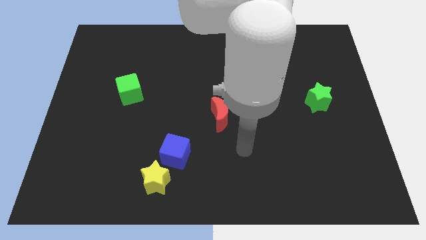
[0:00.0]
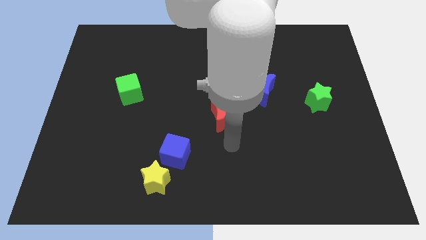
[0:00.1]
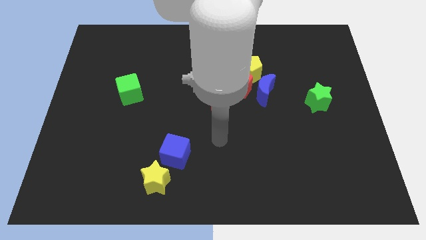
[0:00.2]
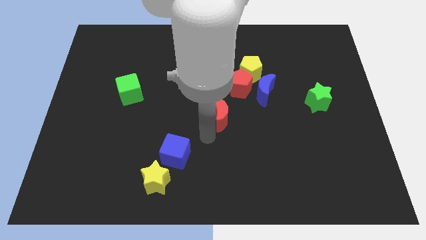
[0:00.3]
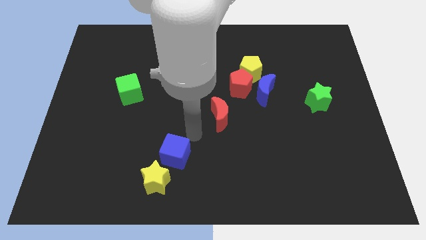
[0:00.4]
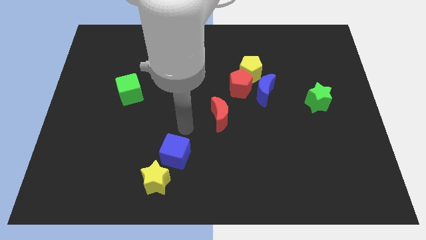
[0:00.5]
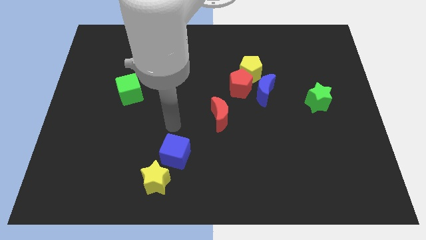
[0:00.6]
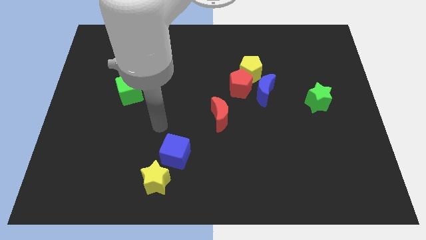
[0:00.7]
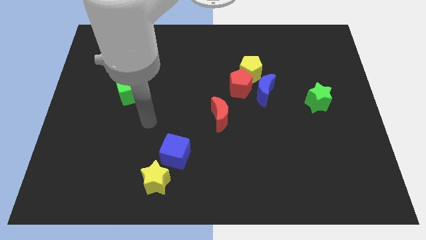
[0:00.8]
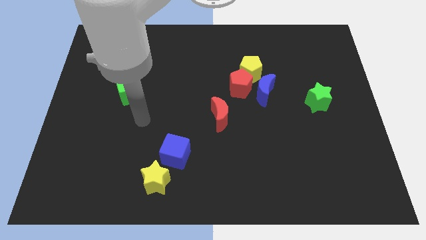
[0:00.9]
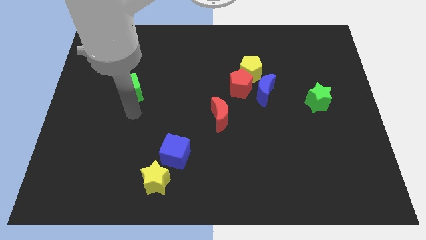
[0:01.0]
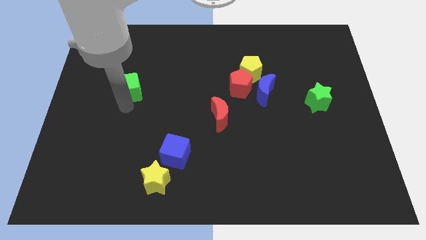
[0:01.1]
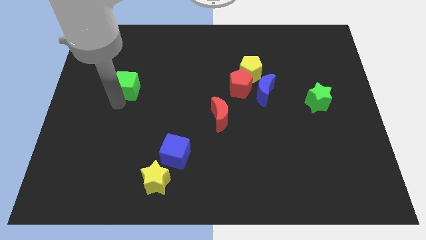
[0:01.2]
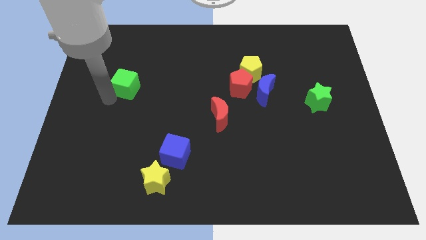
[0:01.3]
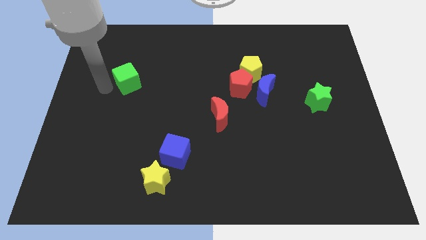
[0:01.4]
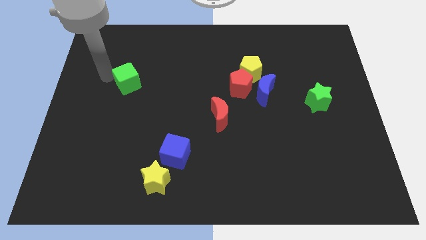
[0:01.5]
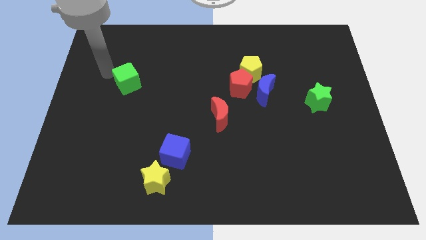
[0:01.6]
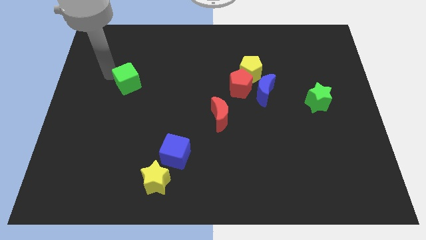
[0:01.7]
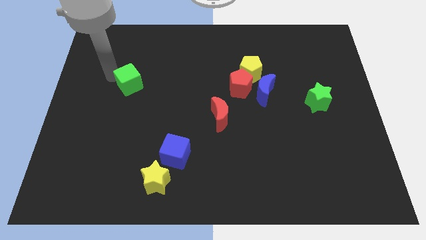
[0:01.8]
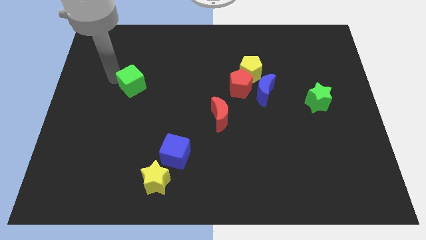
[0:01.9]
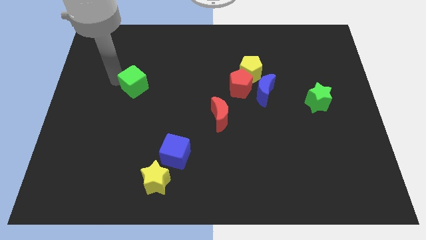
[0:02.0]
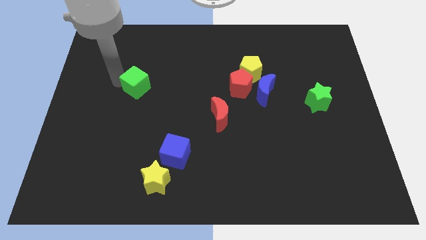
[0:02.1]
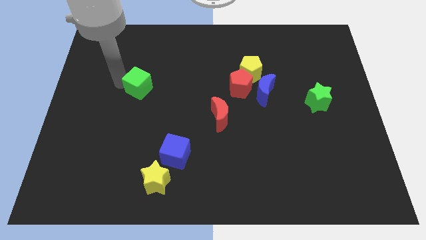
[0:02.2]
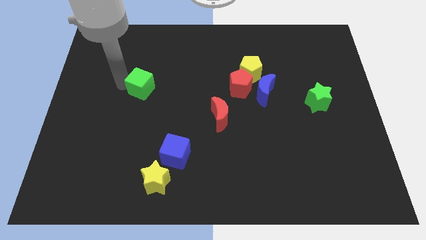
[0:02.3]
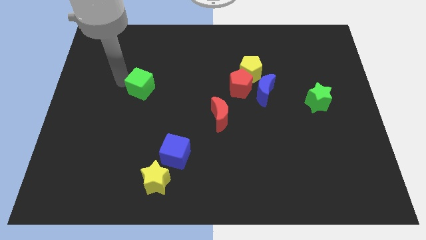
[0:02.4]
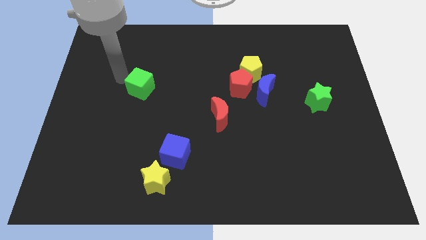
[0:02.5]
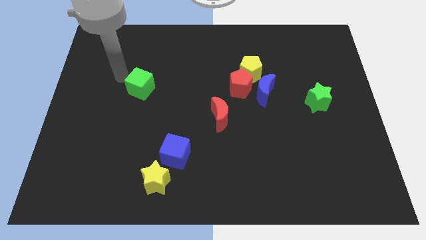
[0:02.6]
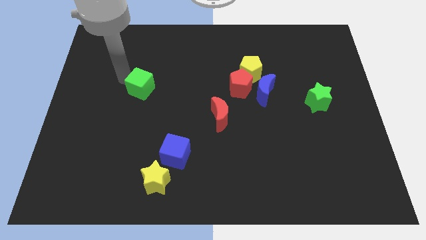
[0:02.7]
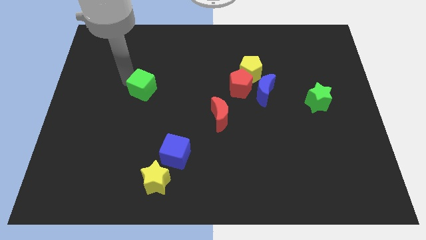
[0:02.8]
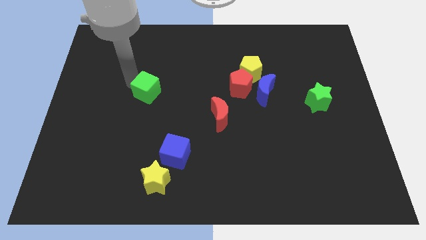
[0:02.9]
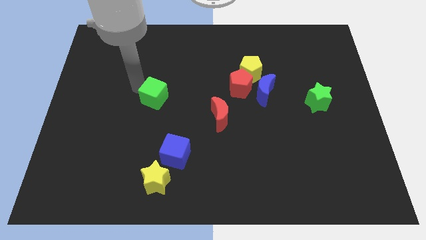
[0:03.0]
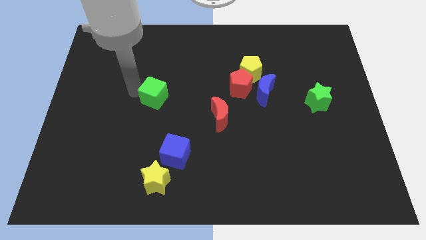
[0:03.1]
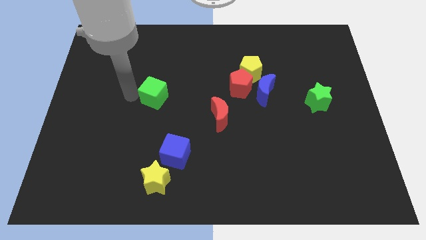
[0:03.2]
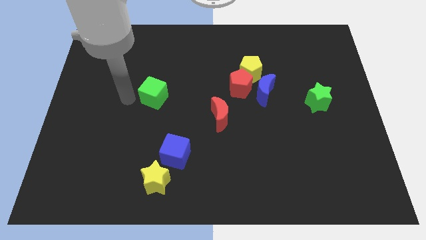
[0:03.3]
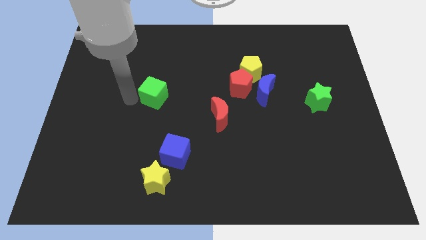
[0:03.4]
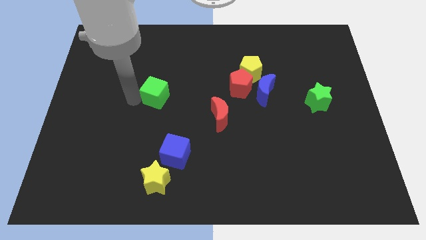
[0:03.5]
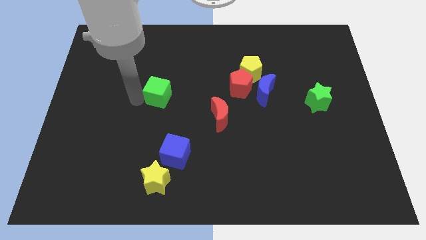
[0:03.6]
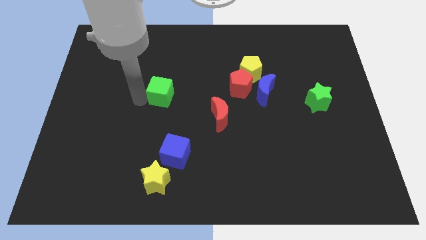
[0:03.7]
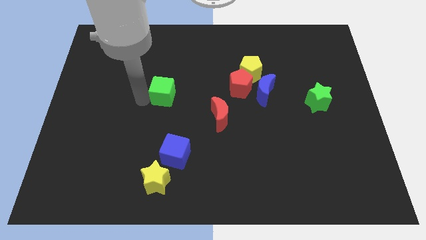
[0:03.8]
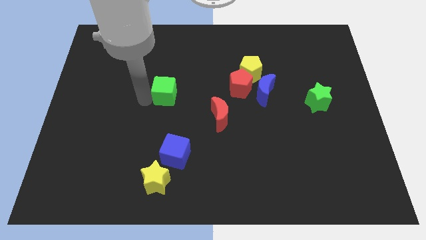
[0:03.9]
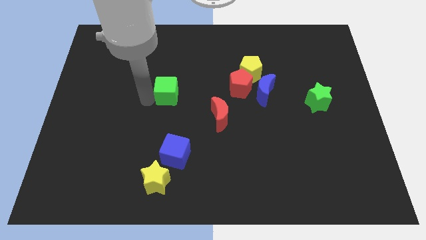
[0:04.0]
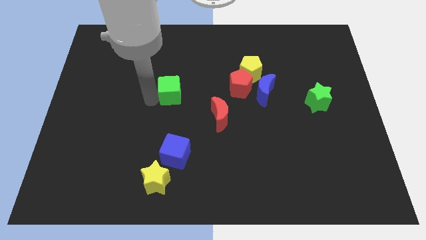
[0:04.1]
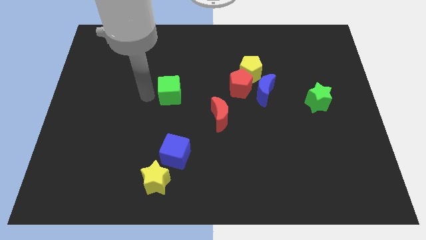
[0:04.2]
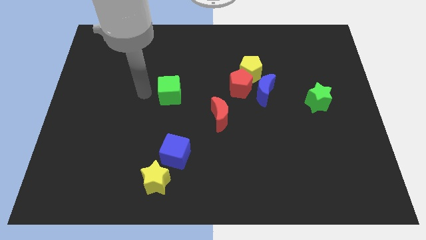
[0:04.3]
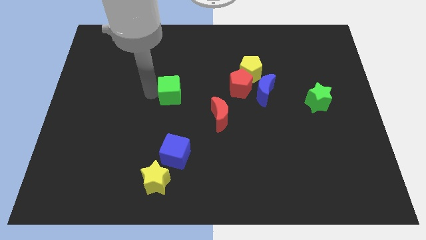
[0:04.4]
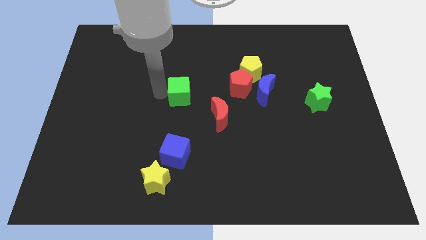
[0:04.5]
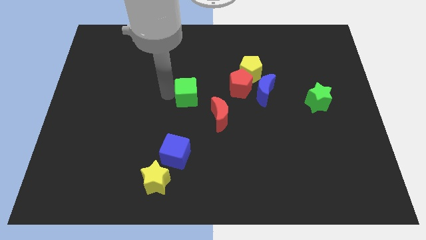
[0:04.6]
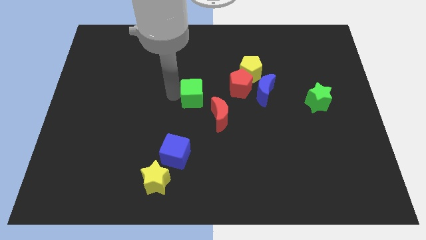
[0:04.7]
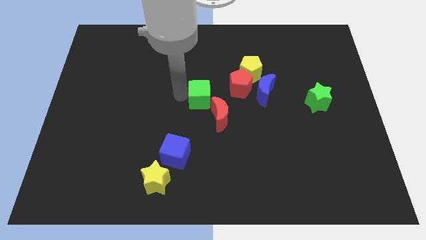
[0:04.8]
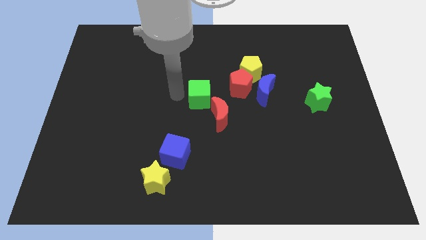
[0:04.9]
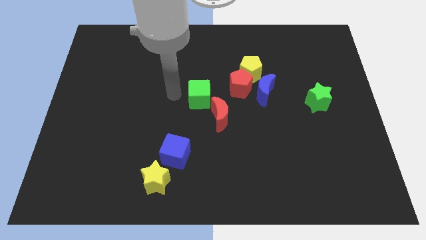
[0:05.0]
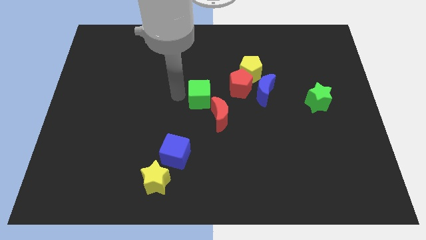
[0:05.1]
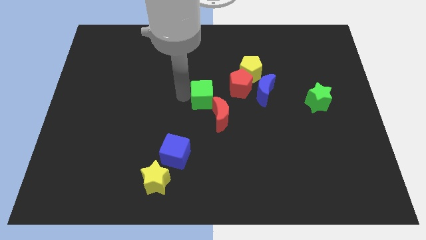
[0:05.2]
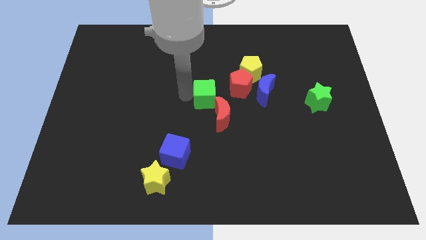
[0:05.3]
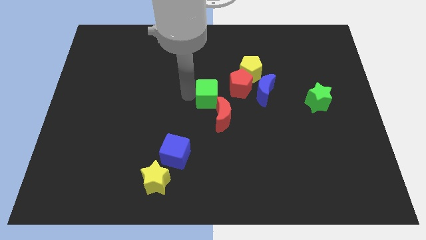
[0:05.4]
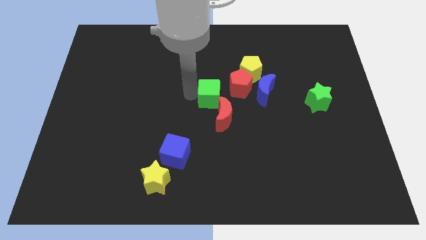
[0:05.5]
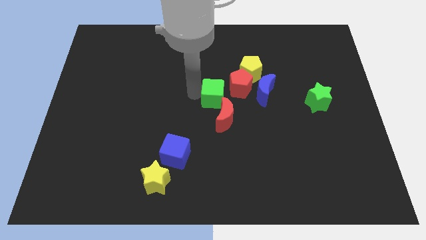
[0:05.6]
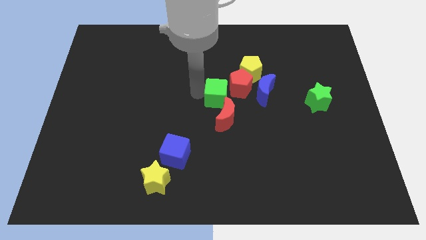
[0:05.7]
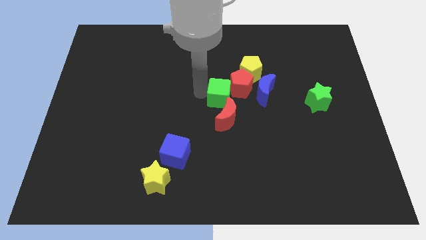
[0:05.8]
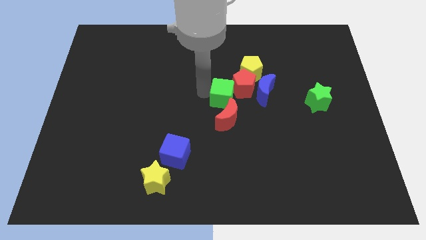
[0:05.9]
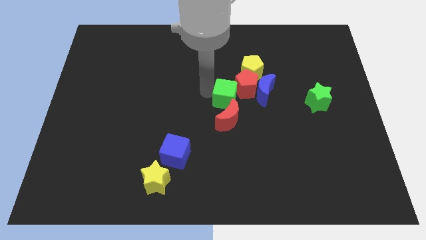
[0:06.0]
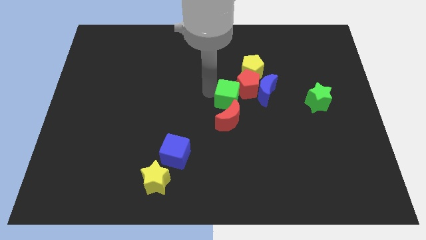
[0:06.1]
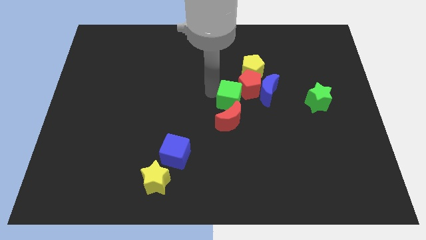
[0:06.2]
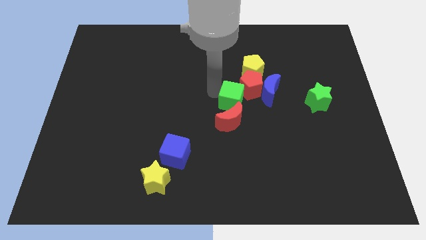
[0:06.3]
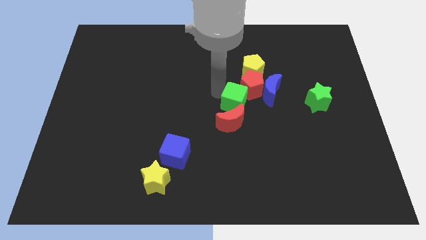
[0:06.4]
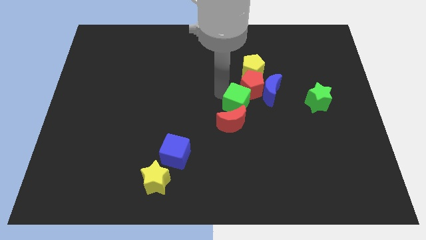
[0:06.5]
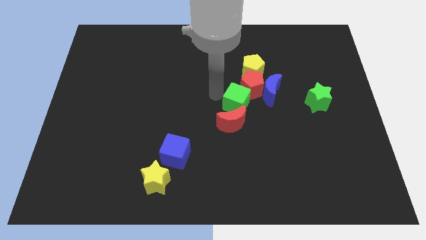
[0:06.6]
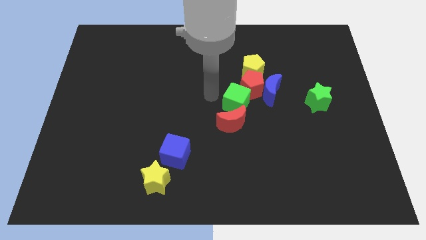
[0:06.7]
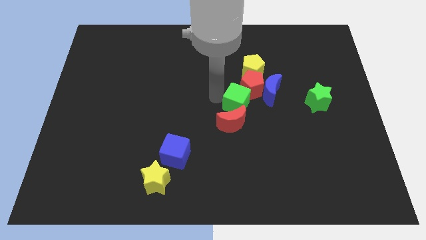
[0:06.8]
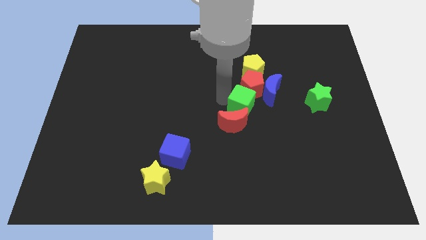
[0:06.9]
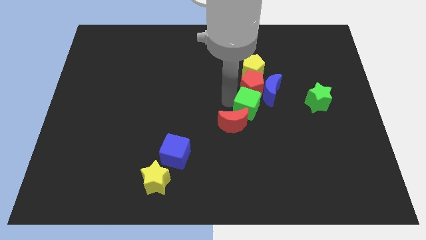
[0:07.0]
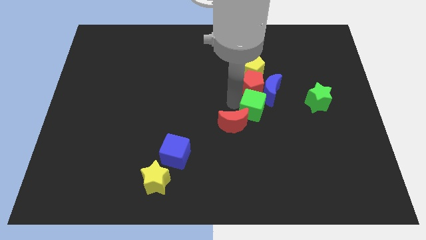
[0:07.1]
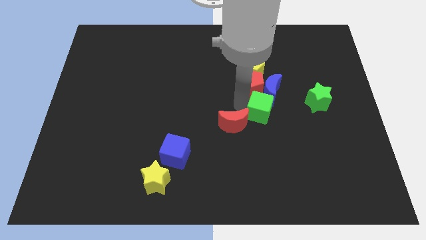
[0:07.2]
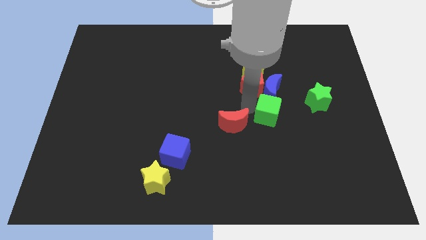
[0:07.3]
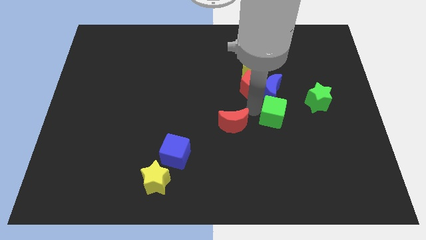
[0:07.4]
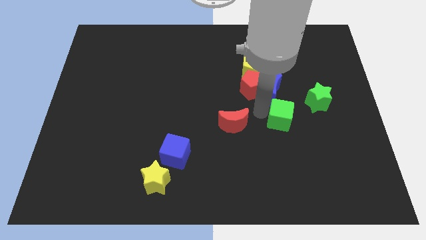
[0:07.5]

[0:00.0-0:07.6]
move the green cube diagonally down and to the left of the green star
